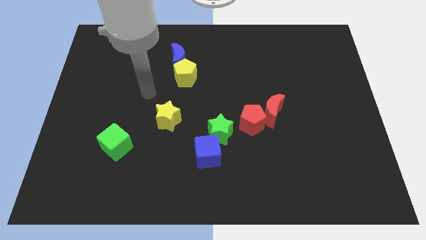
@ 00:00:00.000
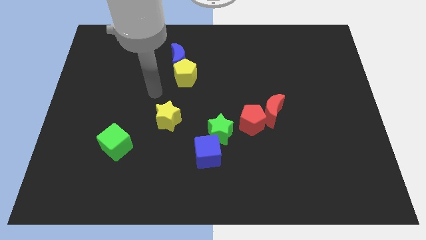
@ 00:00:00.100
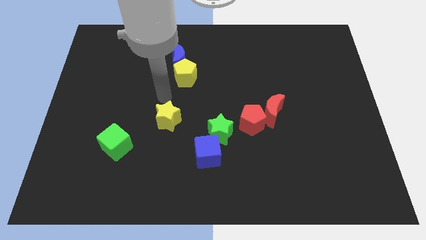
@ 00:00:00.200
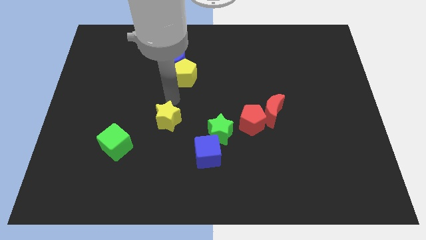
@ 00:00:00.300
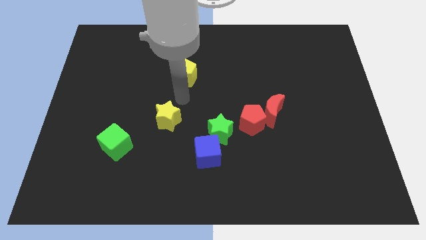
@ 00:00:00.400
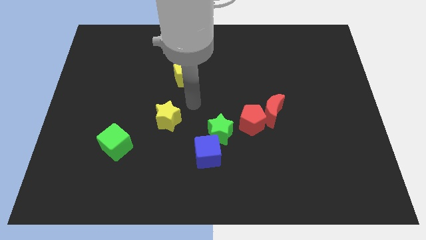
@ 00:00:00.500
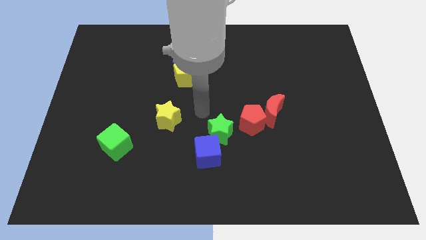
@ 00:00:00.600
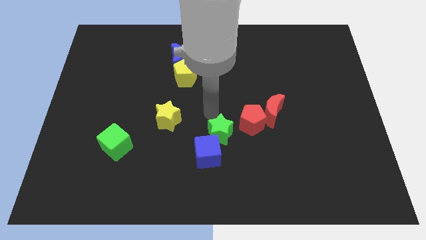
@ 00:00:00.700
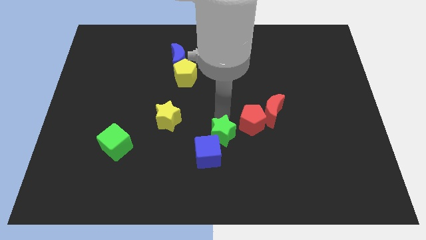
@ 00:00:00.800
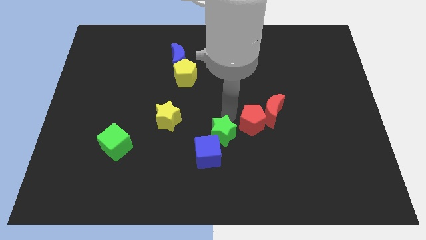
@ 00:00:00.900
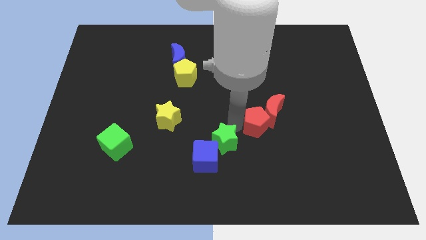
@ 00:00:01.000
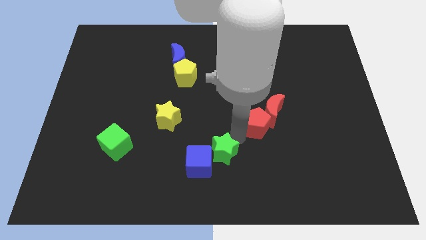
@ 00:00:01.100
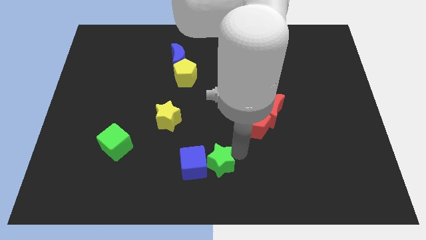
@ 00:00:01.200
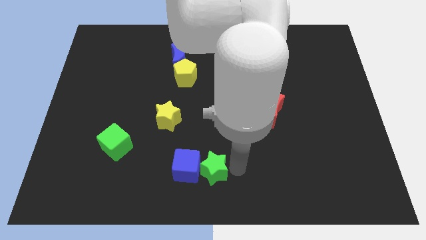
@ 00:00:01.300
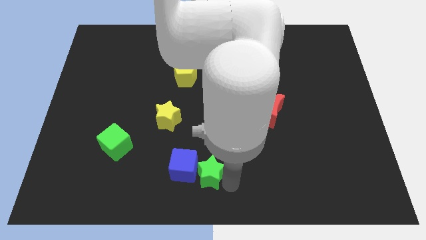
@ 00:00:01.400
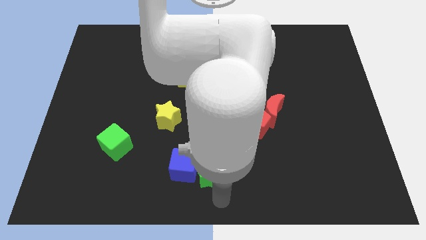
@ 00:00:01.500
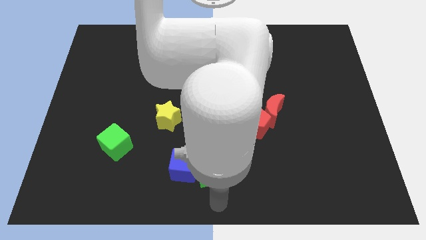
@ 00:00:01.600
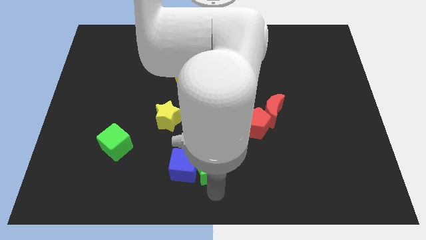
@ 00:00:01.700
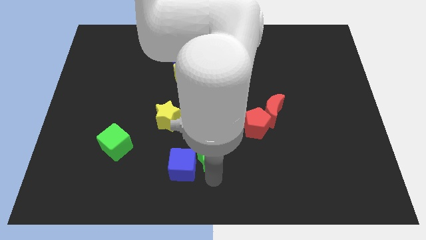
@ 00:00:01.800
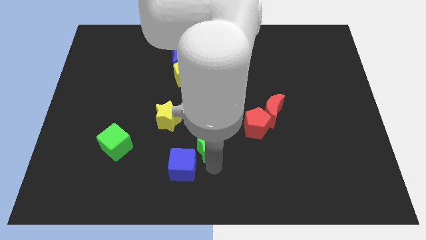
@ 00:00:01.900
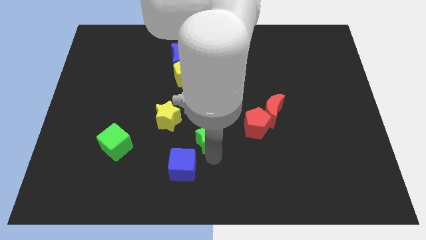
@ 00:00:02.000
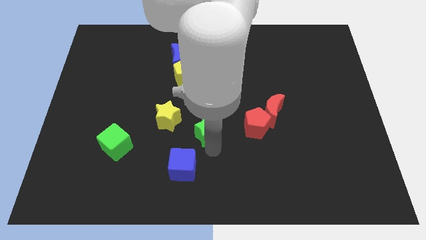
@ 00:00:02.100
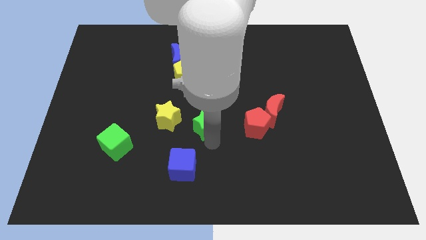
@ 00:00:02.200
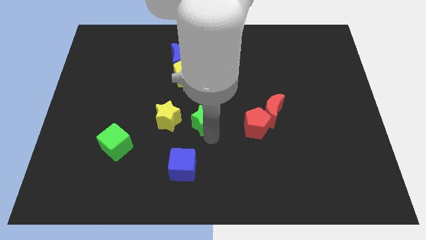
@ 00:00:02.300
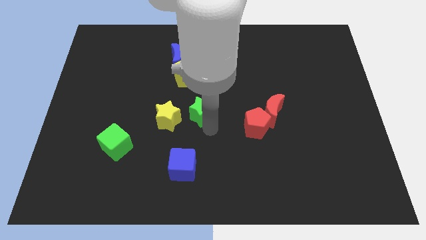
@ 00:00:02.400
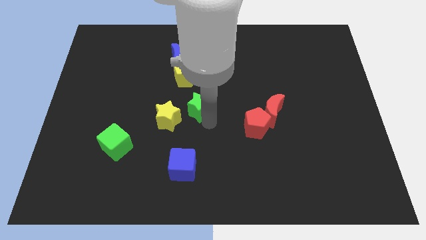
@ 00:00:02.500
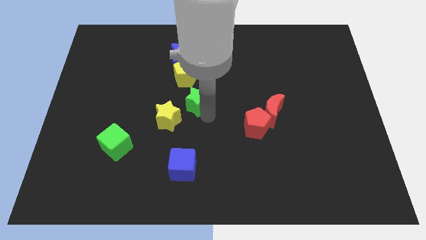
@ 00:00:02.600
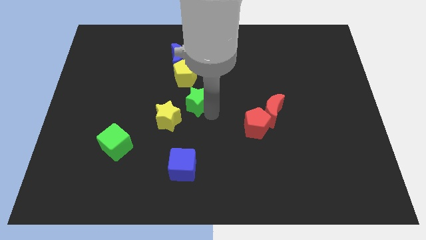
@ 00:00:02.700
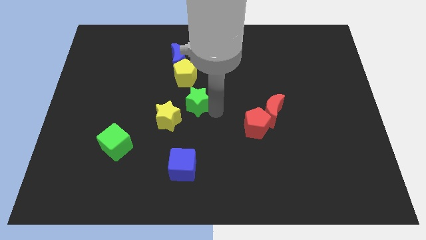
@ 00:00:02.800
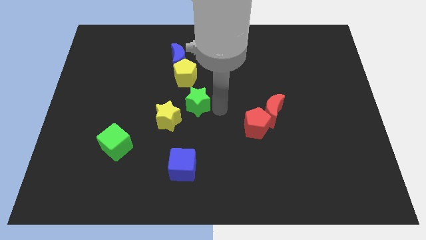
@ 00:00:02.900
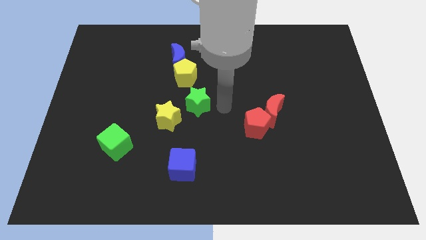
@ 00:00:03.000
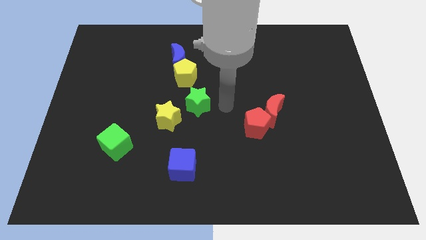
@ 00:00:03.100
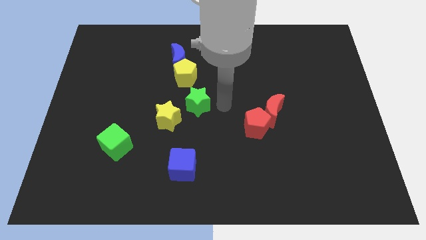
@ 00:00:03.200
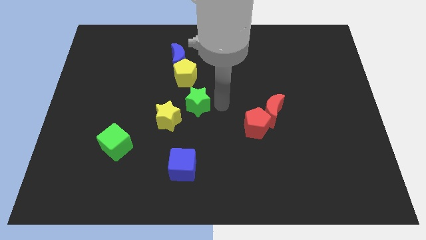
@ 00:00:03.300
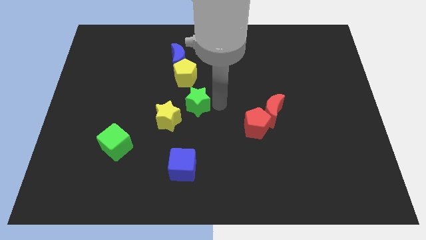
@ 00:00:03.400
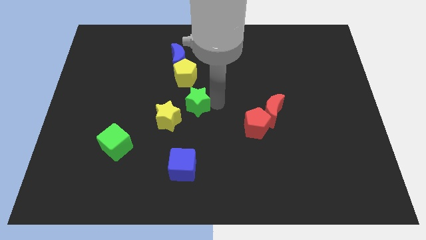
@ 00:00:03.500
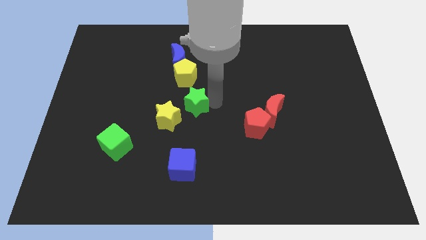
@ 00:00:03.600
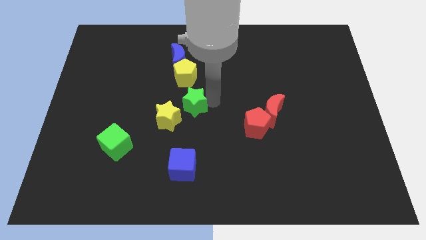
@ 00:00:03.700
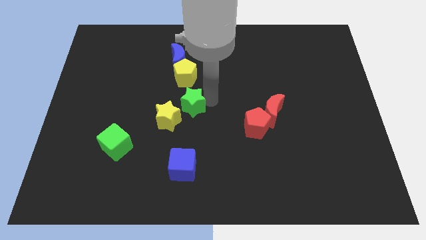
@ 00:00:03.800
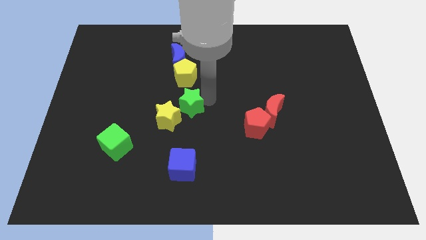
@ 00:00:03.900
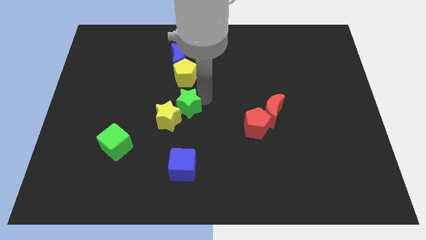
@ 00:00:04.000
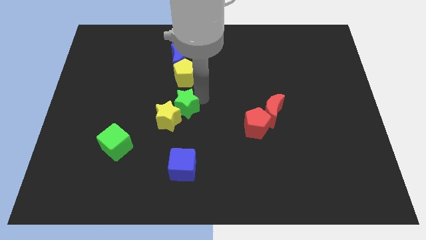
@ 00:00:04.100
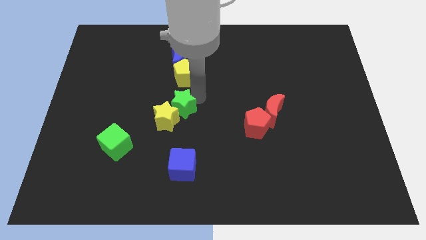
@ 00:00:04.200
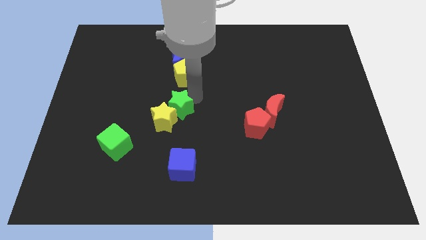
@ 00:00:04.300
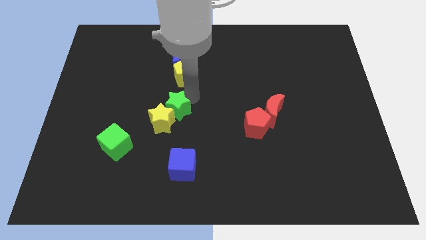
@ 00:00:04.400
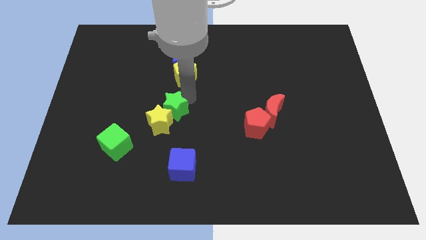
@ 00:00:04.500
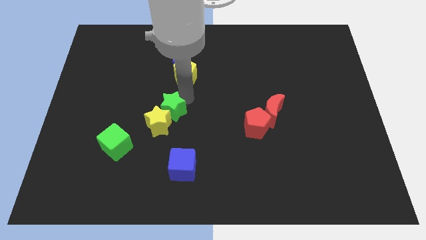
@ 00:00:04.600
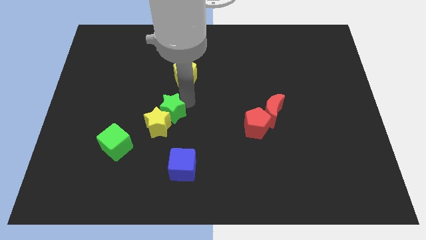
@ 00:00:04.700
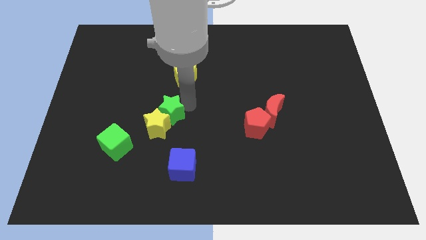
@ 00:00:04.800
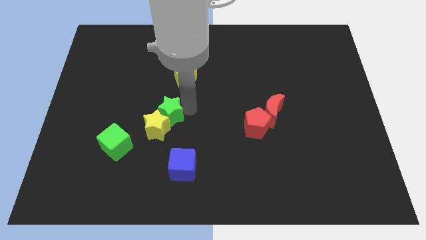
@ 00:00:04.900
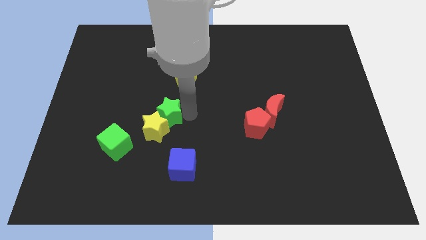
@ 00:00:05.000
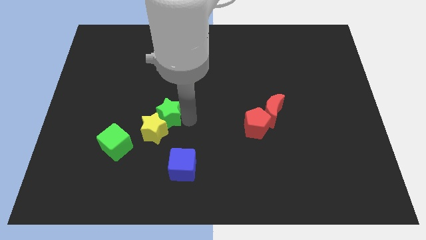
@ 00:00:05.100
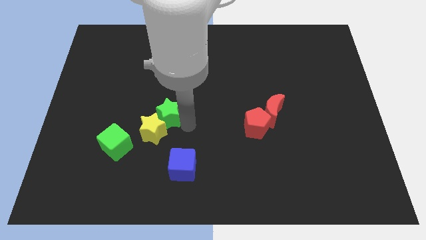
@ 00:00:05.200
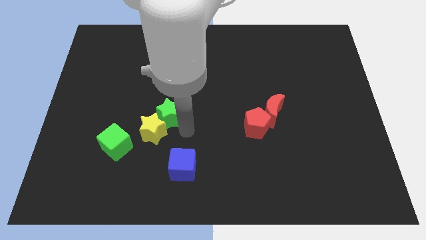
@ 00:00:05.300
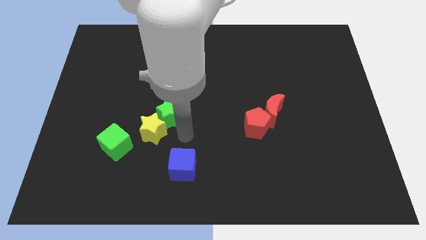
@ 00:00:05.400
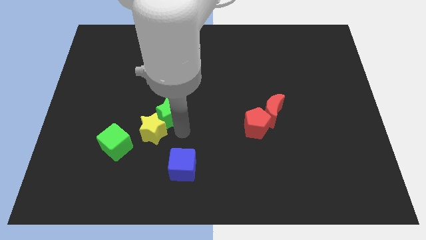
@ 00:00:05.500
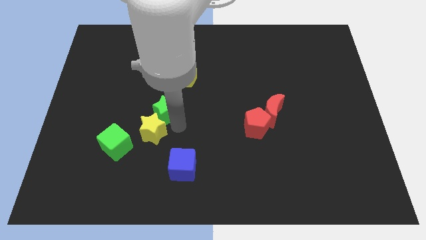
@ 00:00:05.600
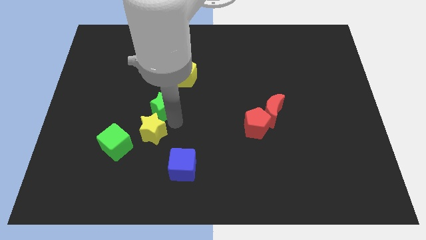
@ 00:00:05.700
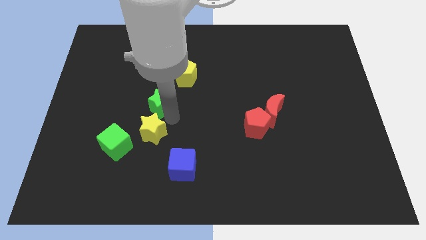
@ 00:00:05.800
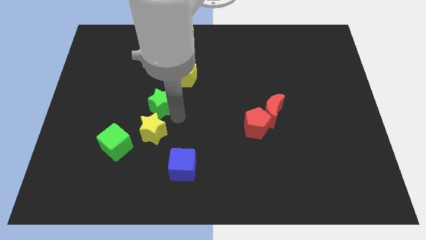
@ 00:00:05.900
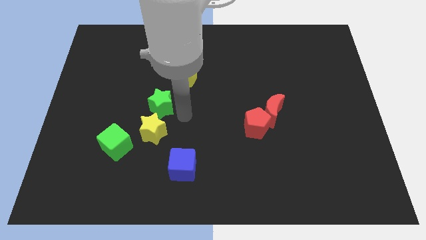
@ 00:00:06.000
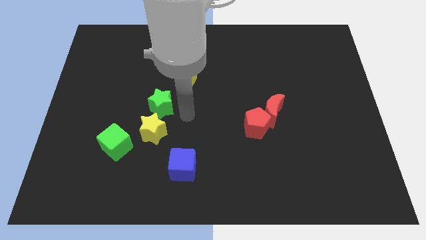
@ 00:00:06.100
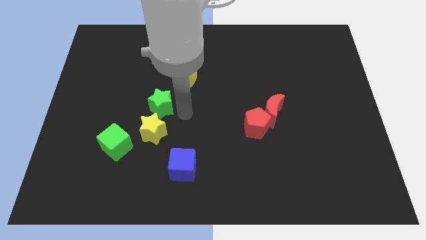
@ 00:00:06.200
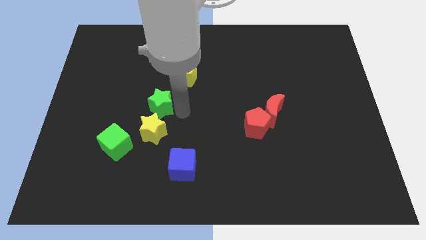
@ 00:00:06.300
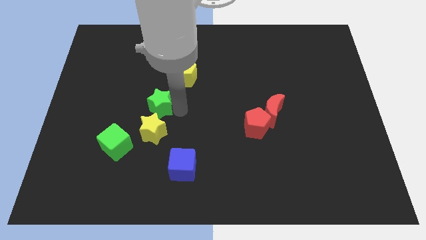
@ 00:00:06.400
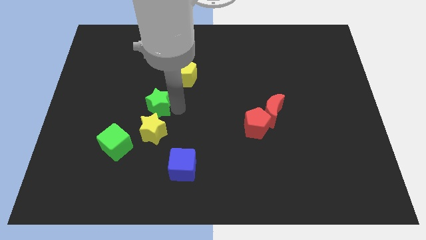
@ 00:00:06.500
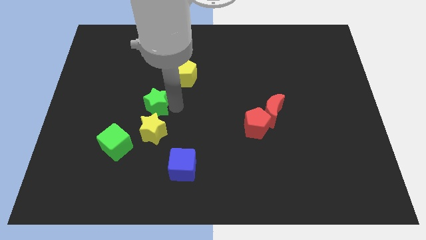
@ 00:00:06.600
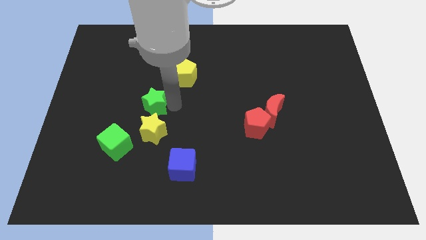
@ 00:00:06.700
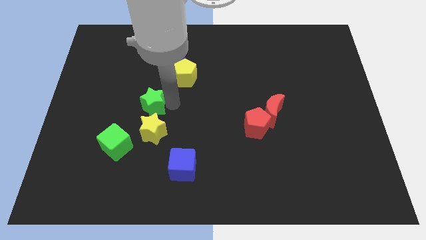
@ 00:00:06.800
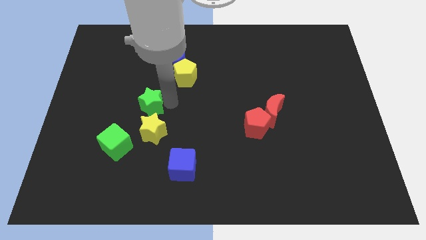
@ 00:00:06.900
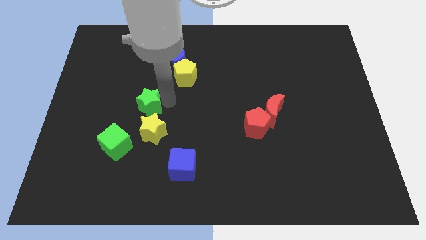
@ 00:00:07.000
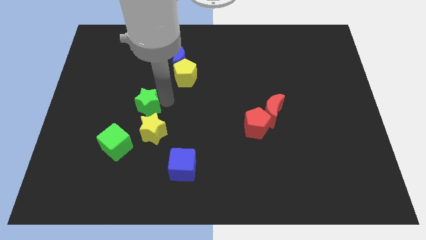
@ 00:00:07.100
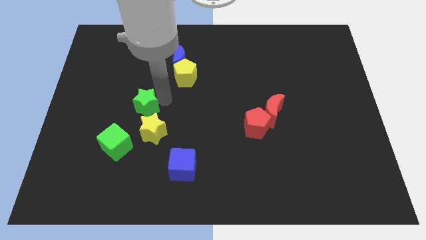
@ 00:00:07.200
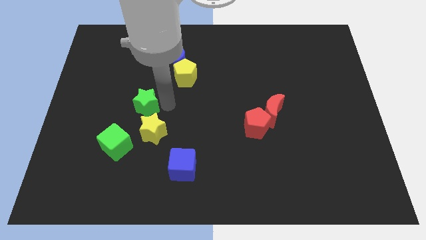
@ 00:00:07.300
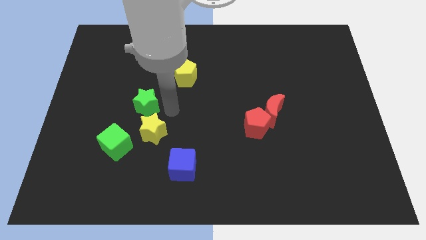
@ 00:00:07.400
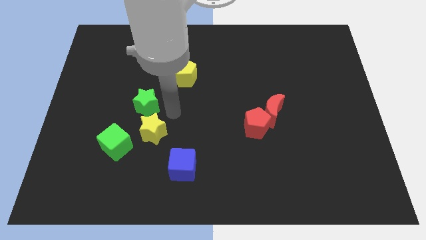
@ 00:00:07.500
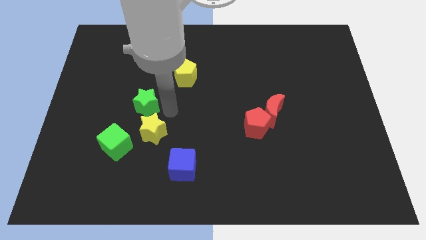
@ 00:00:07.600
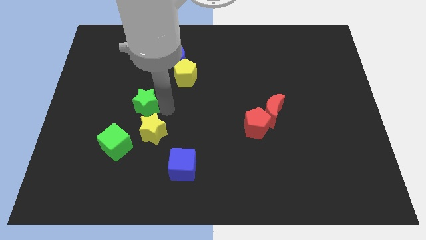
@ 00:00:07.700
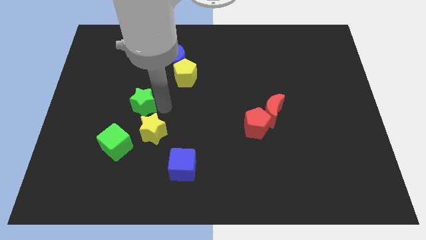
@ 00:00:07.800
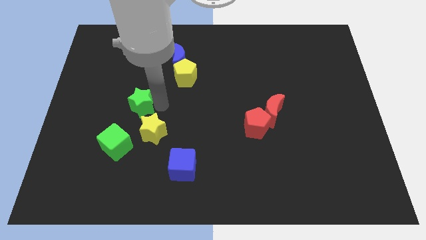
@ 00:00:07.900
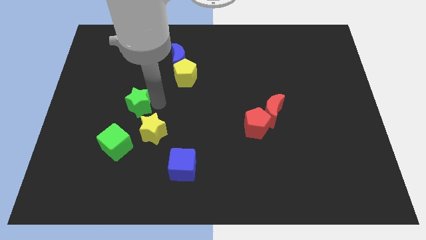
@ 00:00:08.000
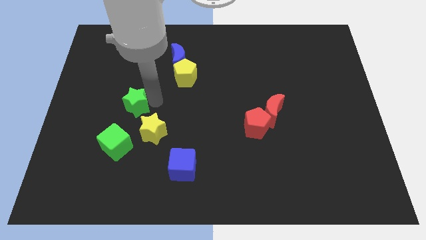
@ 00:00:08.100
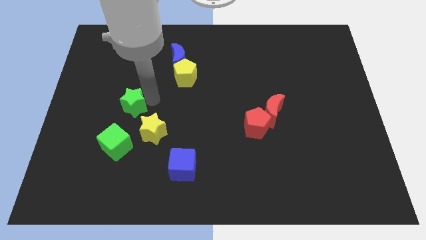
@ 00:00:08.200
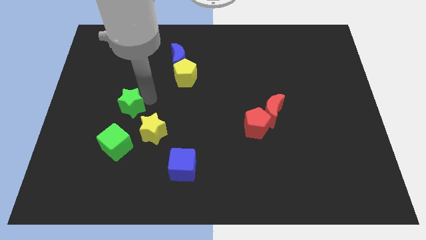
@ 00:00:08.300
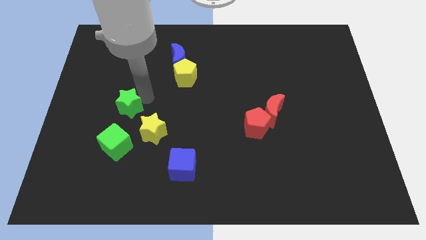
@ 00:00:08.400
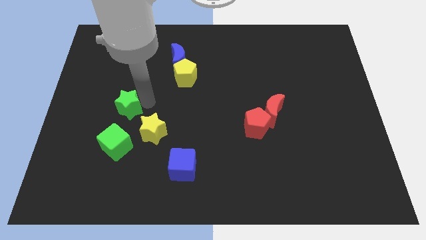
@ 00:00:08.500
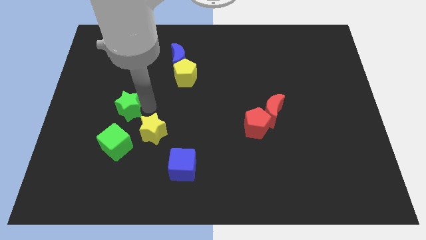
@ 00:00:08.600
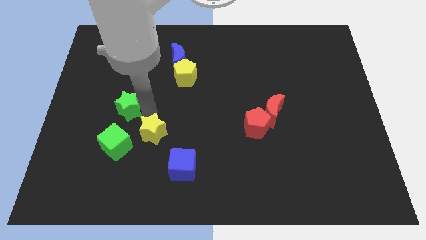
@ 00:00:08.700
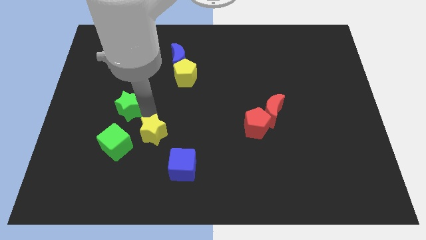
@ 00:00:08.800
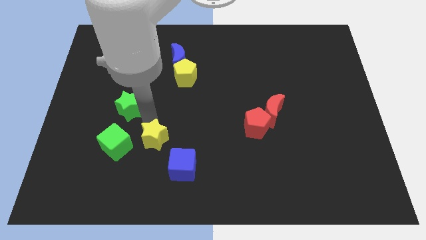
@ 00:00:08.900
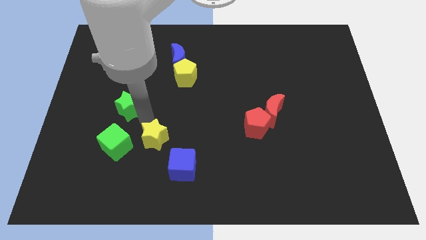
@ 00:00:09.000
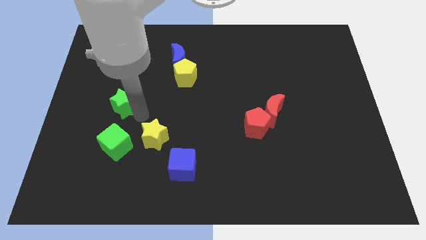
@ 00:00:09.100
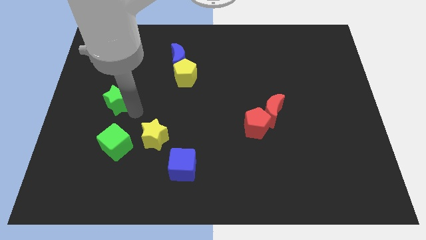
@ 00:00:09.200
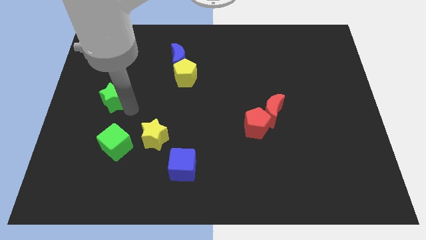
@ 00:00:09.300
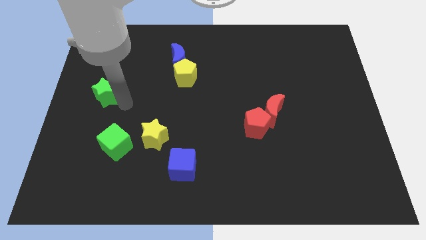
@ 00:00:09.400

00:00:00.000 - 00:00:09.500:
slide the green star to the left side
